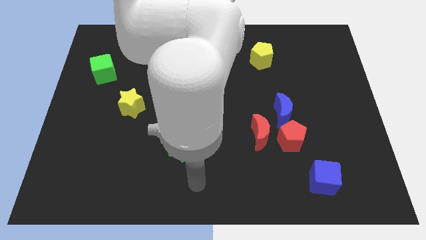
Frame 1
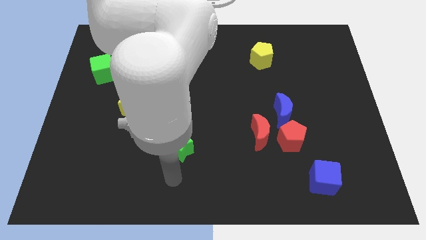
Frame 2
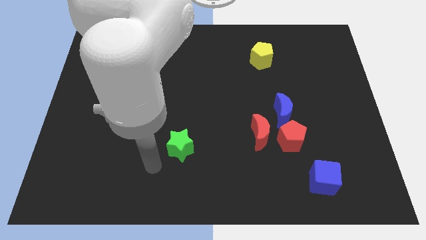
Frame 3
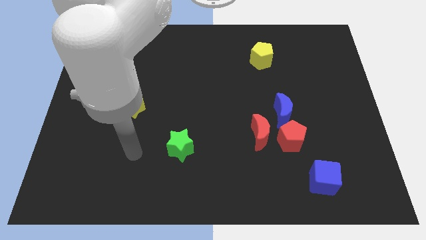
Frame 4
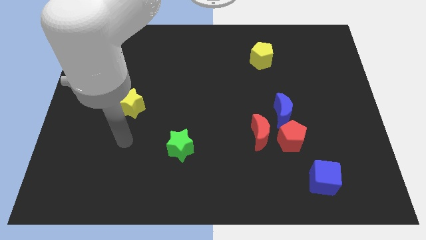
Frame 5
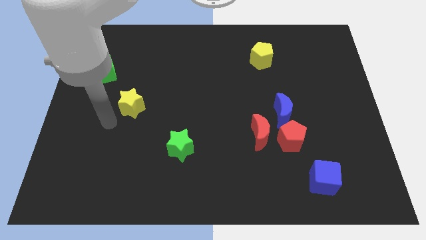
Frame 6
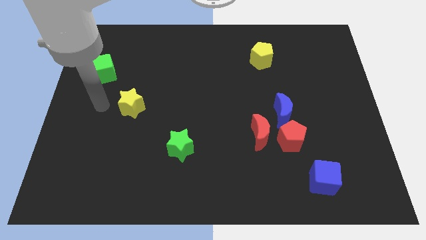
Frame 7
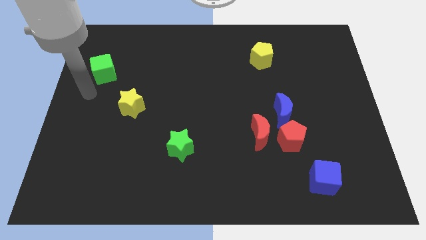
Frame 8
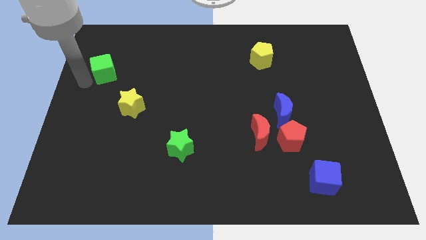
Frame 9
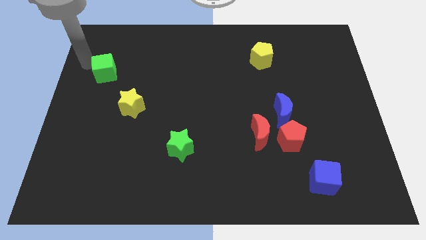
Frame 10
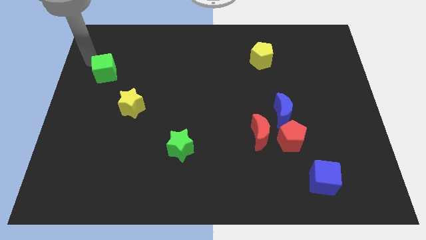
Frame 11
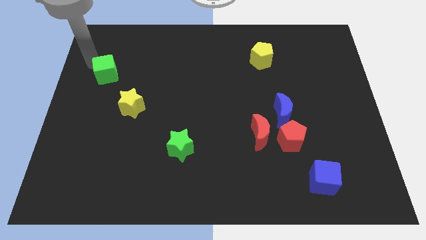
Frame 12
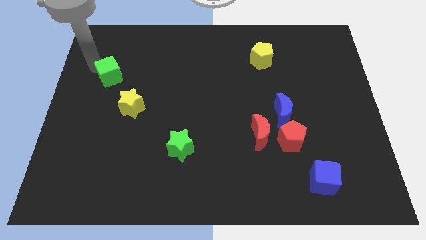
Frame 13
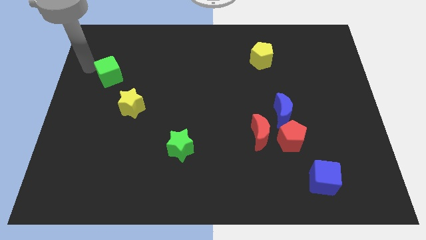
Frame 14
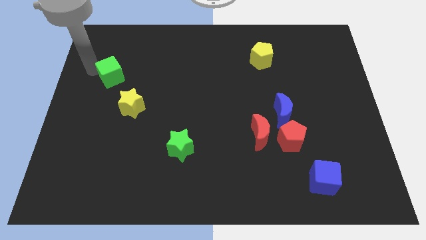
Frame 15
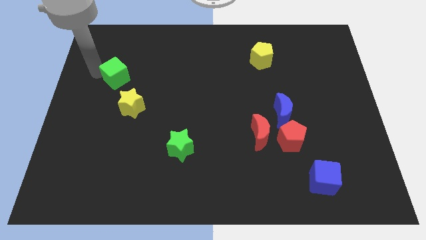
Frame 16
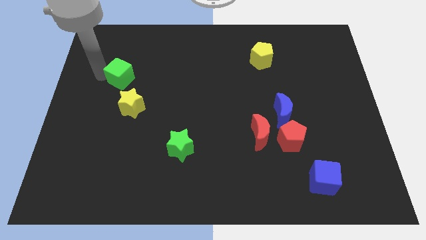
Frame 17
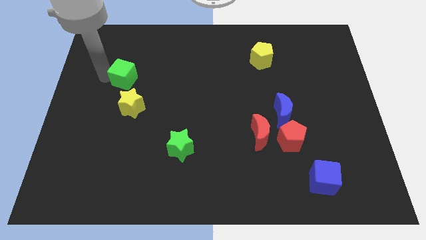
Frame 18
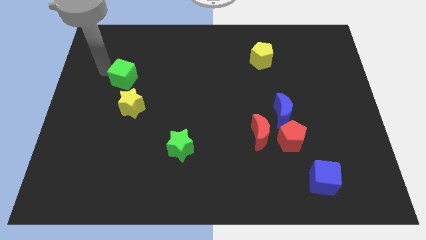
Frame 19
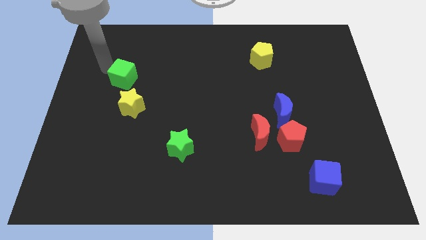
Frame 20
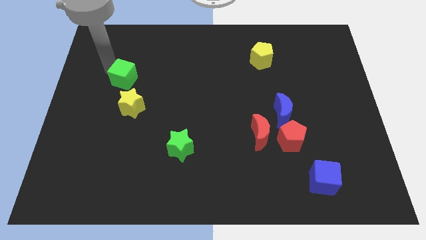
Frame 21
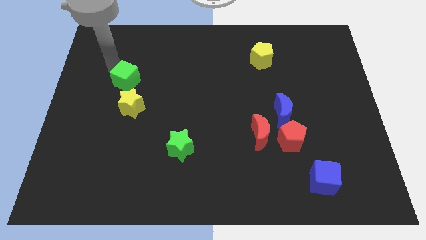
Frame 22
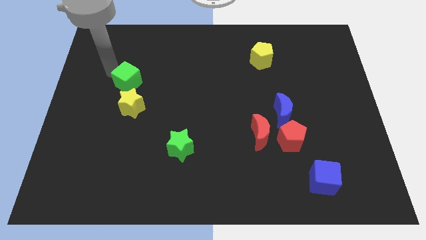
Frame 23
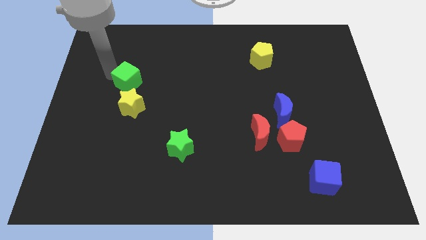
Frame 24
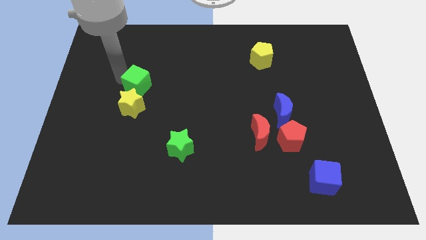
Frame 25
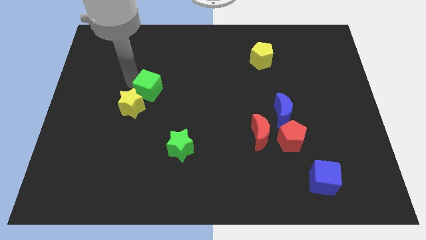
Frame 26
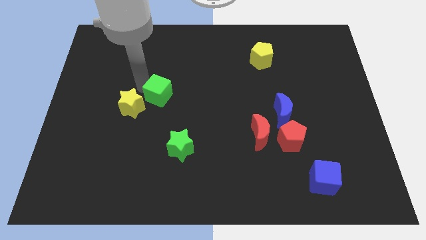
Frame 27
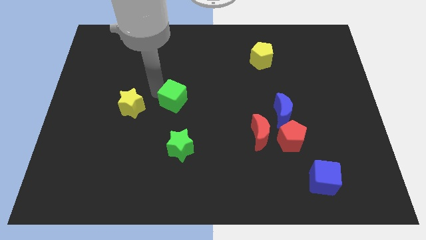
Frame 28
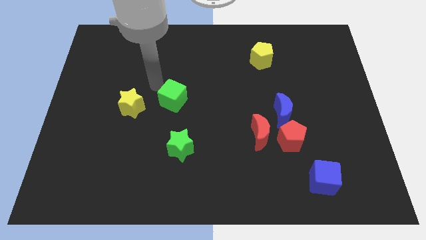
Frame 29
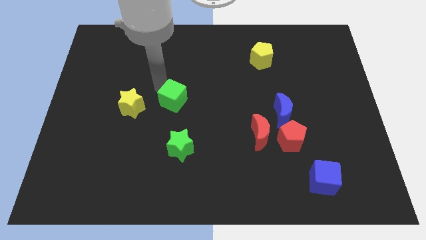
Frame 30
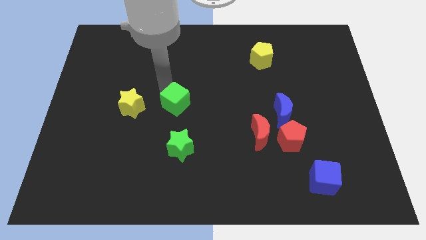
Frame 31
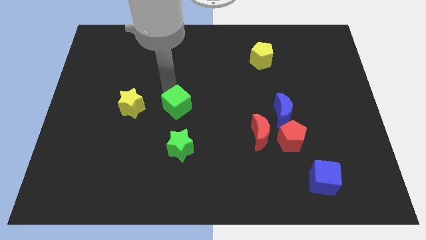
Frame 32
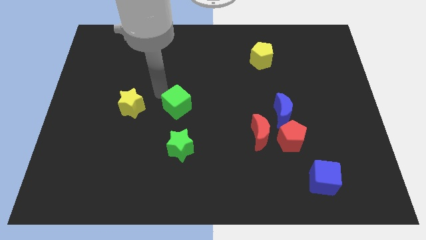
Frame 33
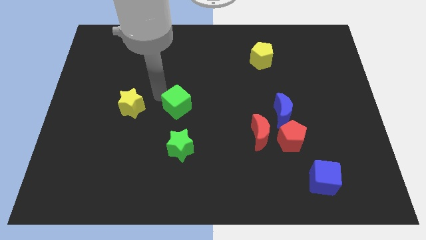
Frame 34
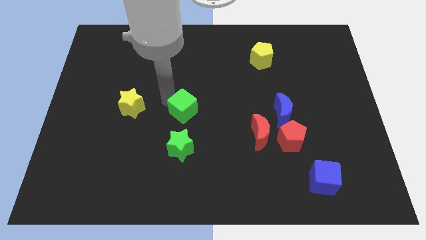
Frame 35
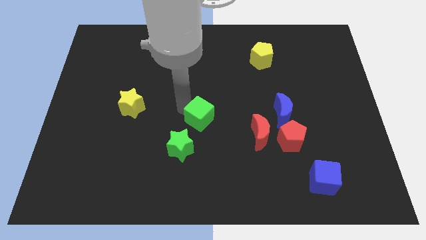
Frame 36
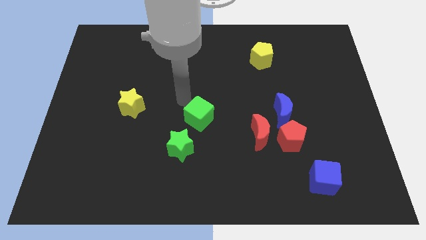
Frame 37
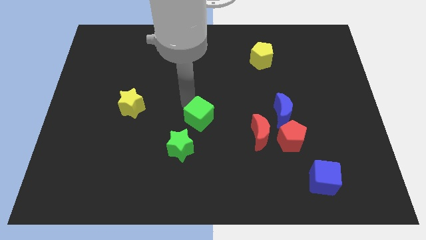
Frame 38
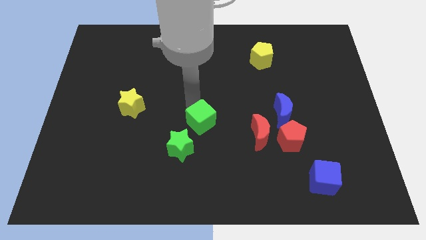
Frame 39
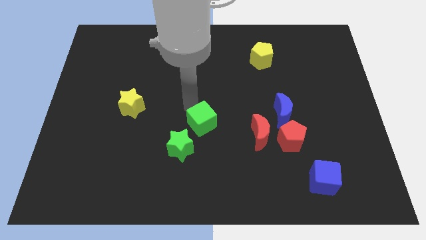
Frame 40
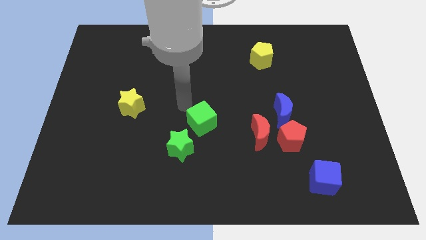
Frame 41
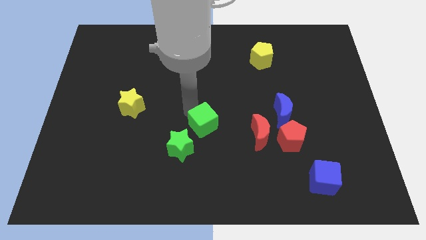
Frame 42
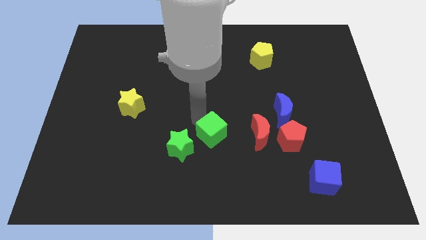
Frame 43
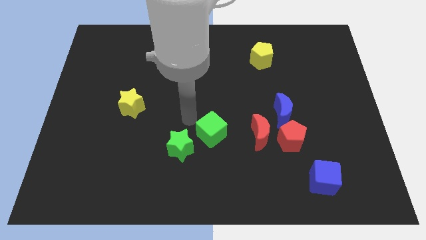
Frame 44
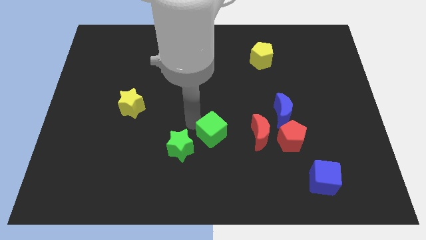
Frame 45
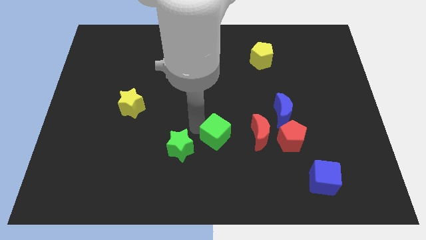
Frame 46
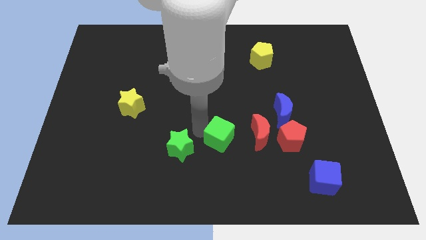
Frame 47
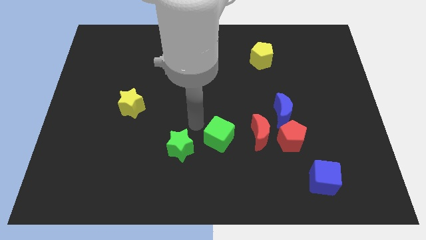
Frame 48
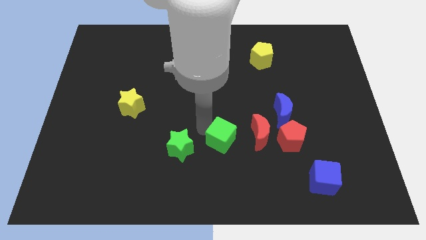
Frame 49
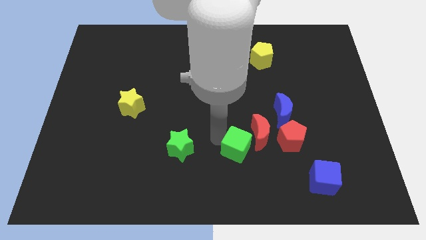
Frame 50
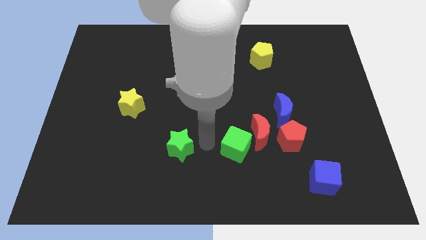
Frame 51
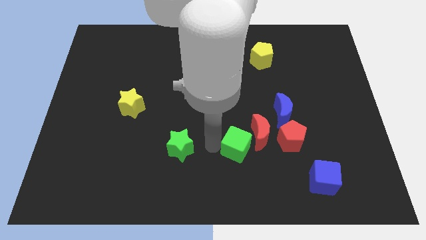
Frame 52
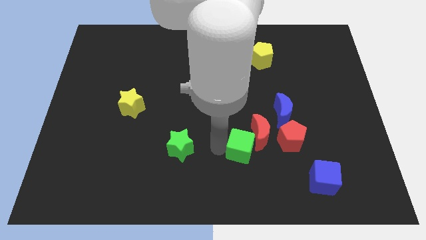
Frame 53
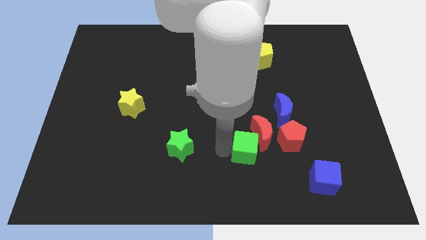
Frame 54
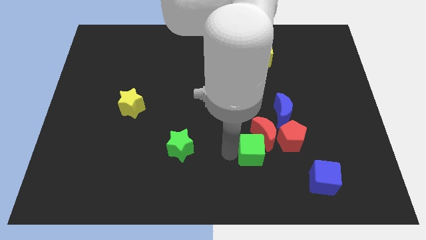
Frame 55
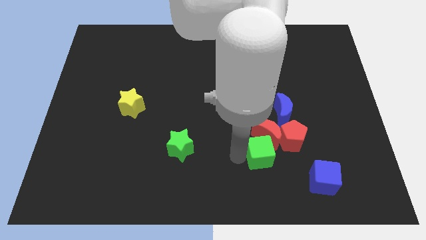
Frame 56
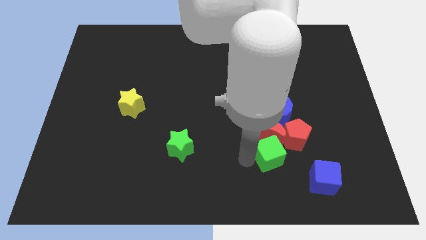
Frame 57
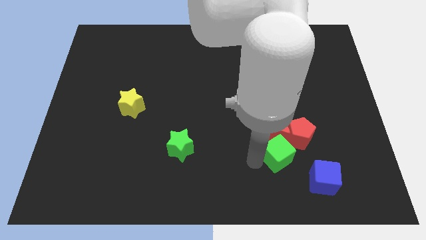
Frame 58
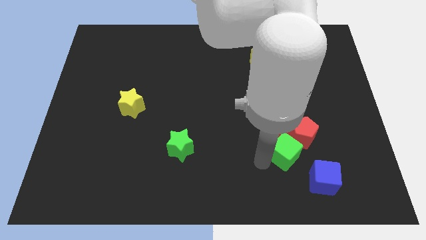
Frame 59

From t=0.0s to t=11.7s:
put the green cube towards the red pentagon

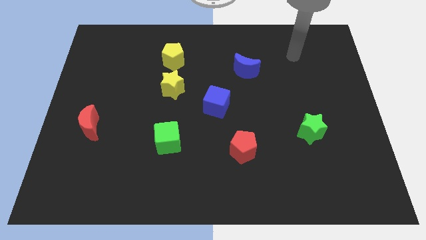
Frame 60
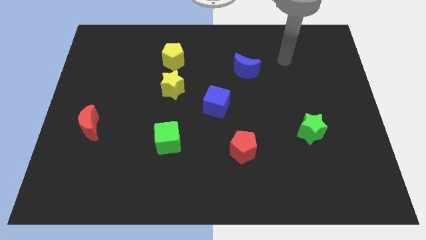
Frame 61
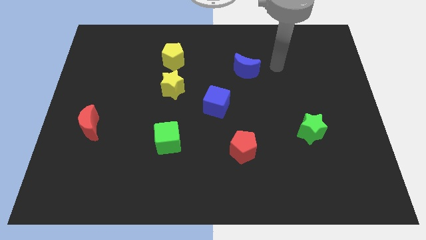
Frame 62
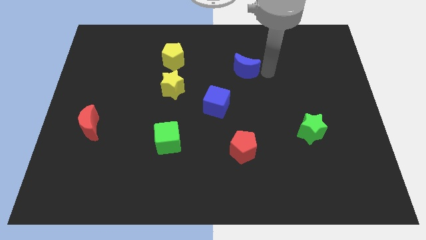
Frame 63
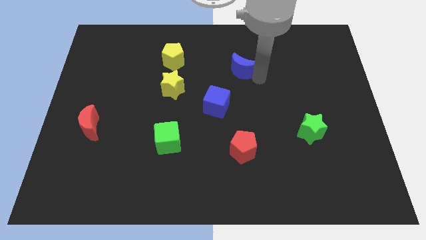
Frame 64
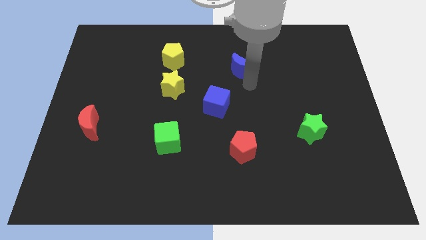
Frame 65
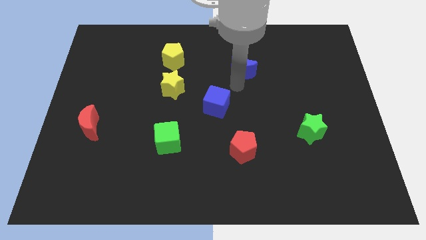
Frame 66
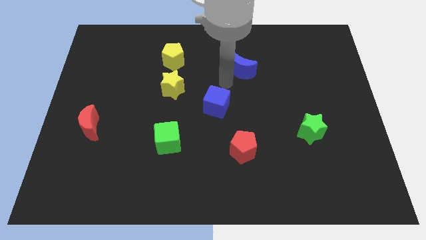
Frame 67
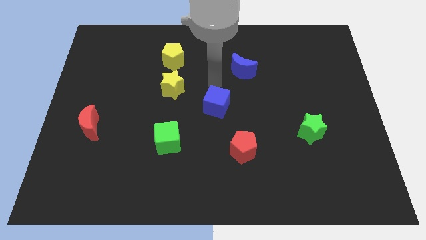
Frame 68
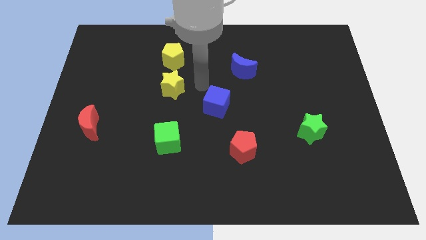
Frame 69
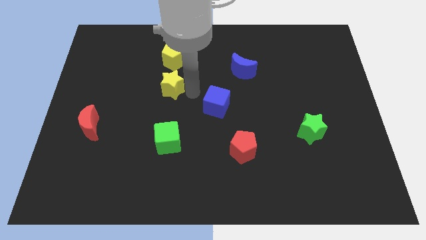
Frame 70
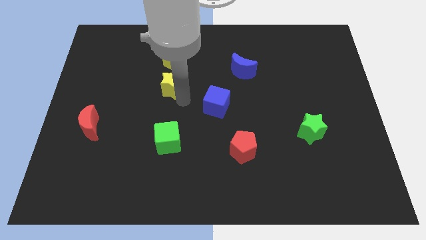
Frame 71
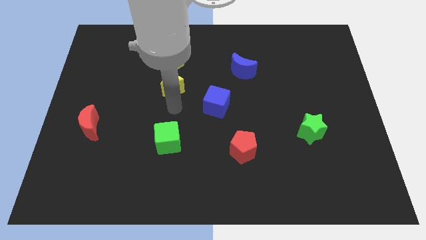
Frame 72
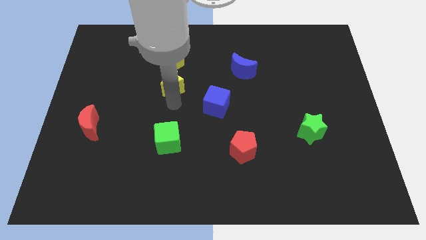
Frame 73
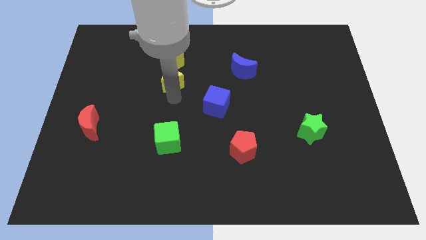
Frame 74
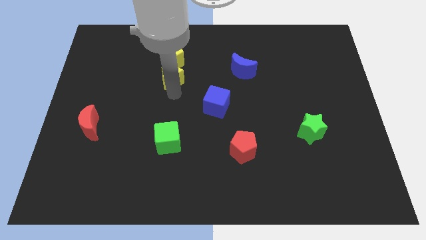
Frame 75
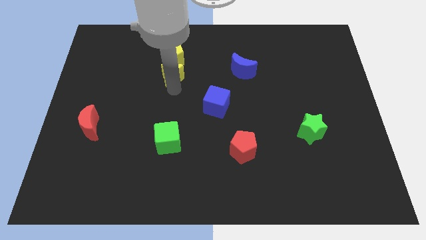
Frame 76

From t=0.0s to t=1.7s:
move the yellow star towards the yellow pentagon
